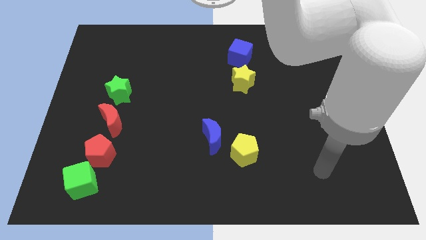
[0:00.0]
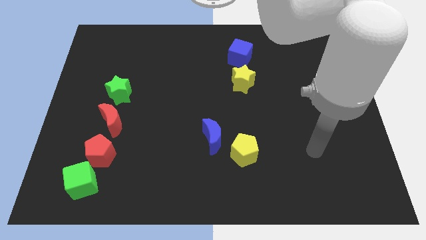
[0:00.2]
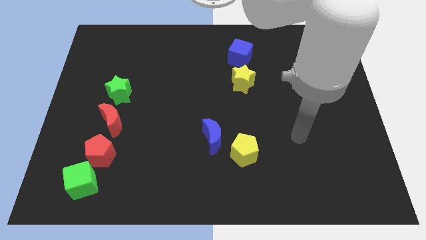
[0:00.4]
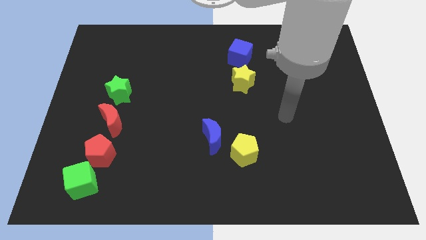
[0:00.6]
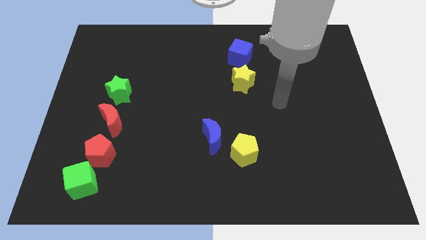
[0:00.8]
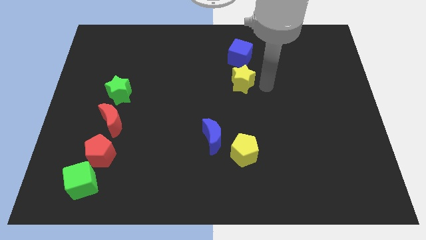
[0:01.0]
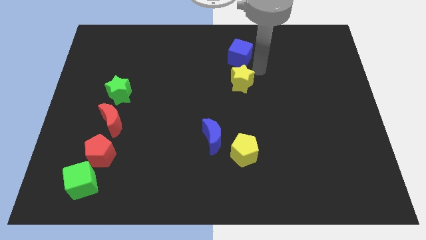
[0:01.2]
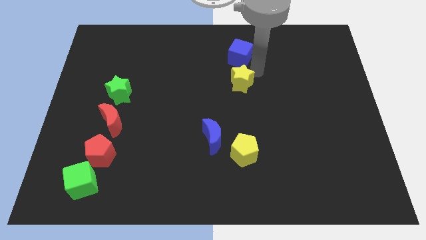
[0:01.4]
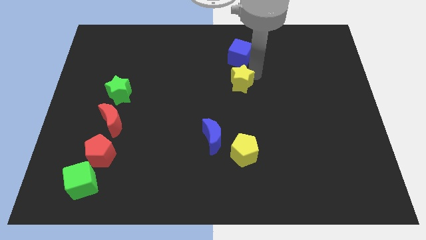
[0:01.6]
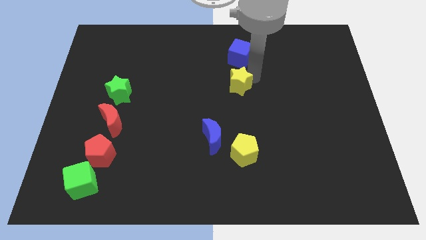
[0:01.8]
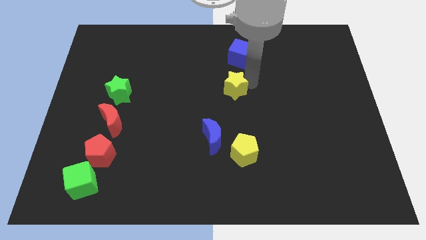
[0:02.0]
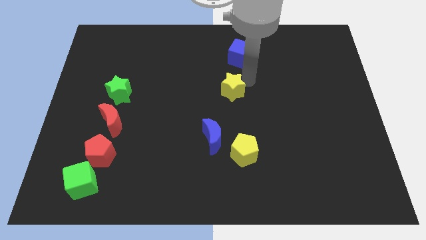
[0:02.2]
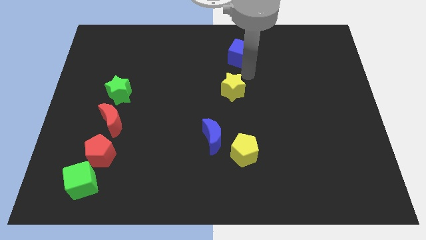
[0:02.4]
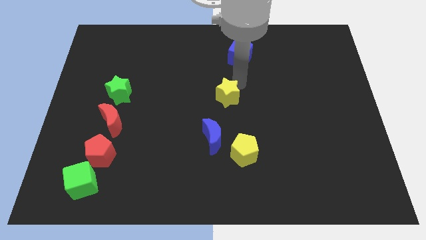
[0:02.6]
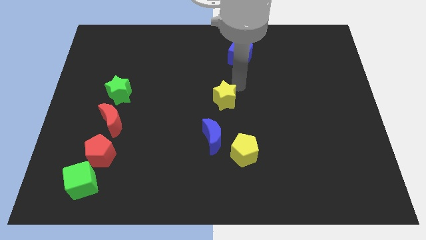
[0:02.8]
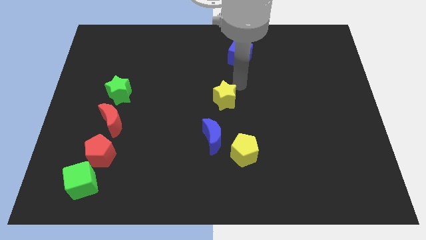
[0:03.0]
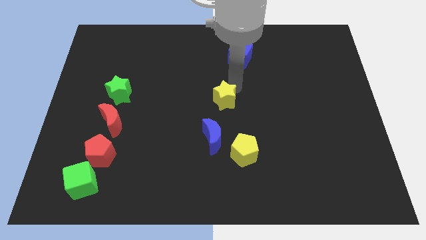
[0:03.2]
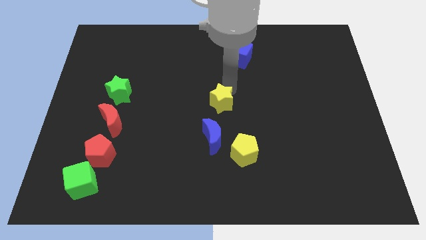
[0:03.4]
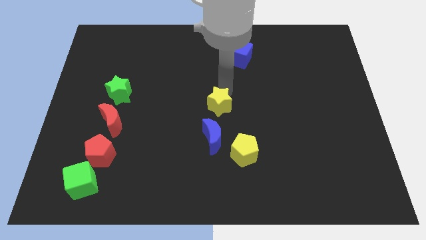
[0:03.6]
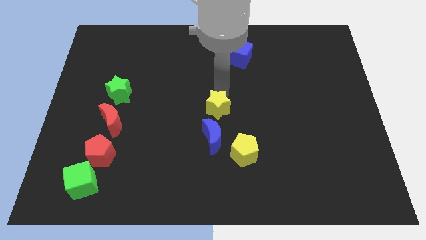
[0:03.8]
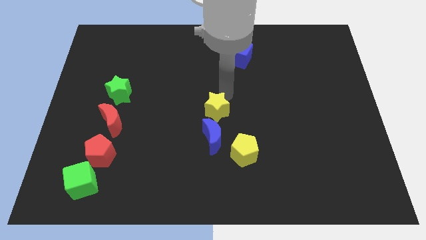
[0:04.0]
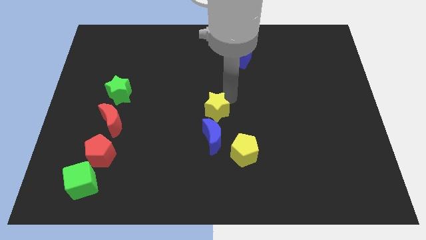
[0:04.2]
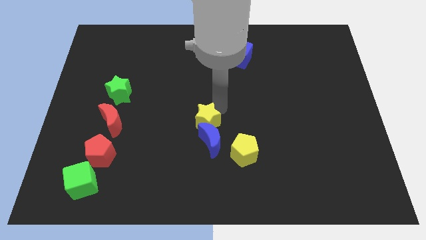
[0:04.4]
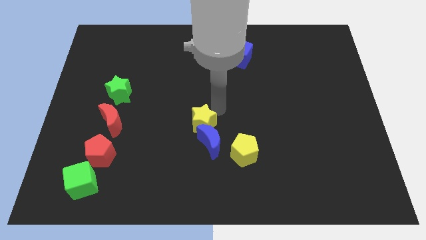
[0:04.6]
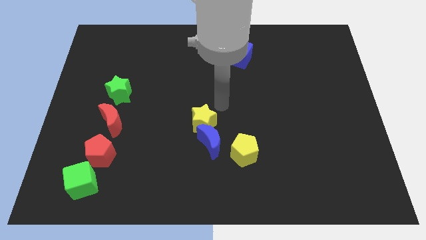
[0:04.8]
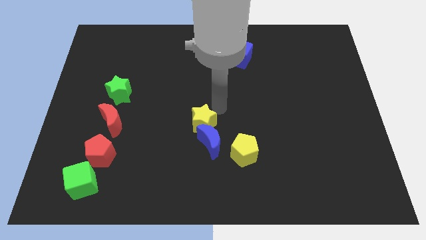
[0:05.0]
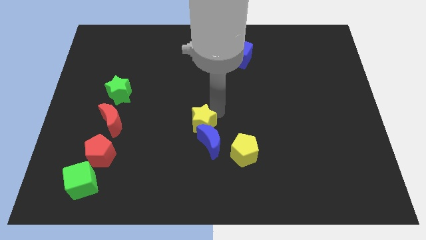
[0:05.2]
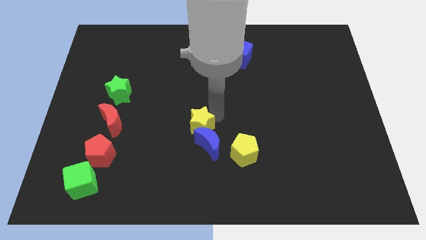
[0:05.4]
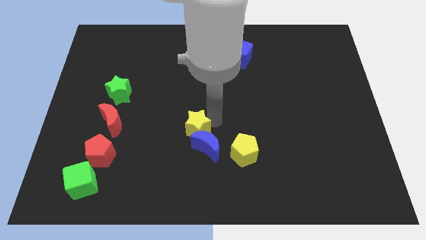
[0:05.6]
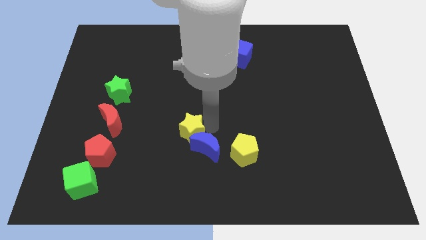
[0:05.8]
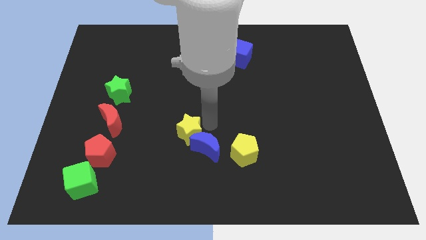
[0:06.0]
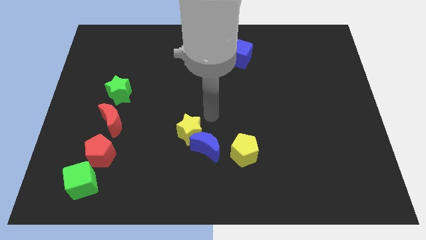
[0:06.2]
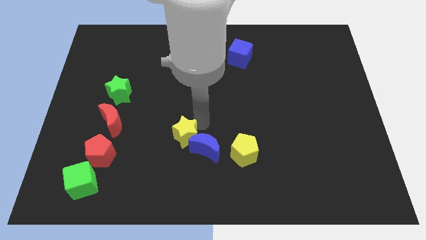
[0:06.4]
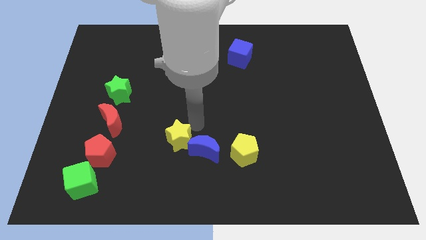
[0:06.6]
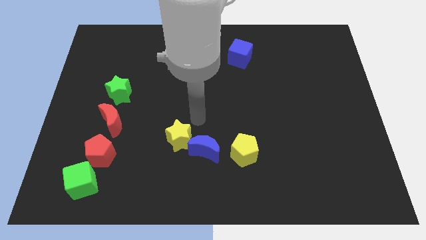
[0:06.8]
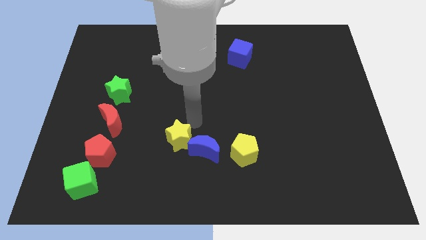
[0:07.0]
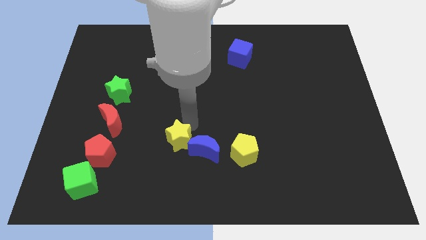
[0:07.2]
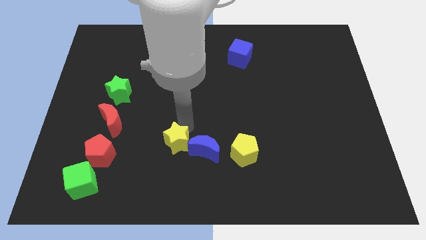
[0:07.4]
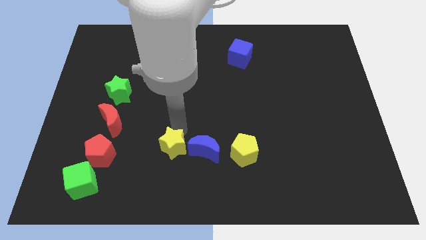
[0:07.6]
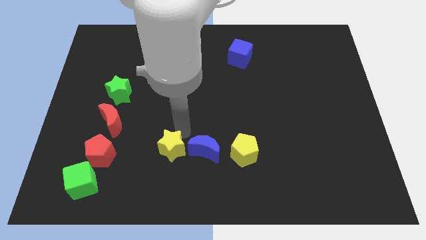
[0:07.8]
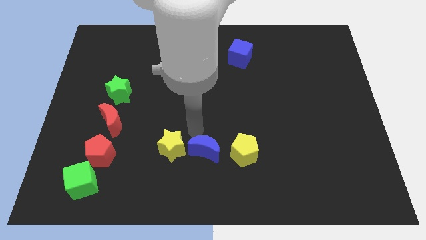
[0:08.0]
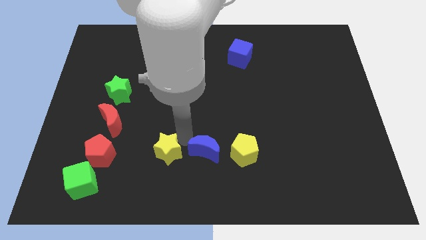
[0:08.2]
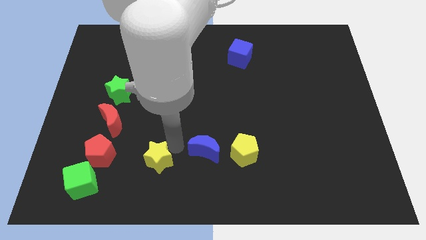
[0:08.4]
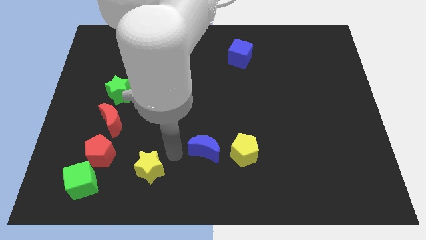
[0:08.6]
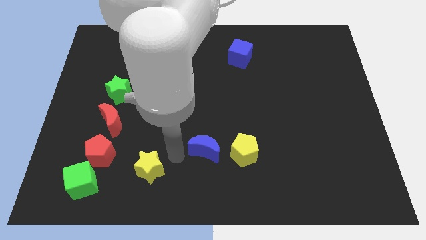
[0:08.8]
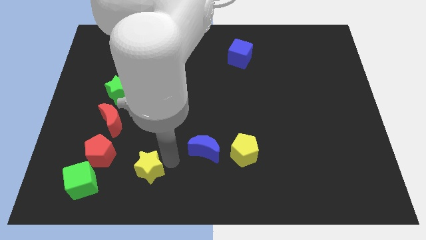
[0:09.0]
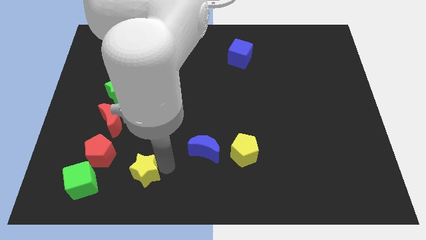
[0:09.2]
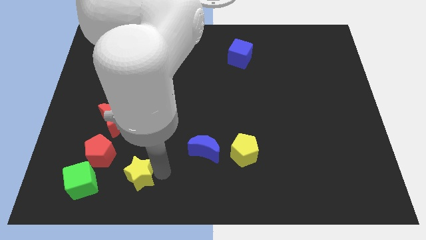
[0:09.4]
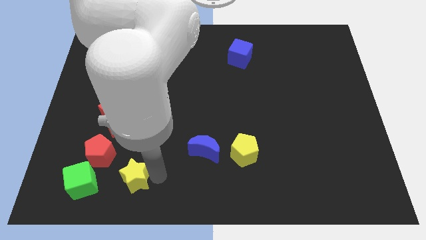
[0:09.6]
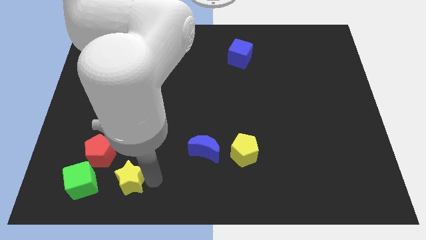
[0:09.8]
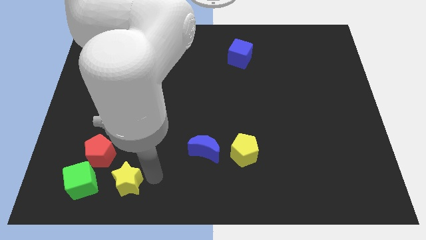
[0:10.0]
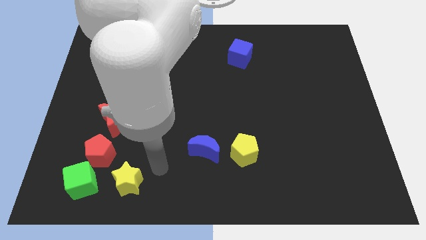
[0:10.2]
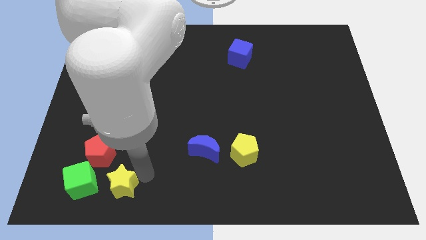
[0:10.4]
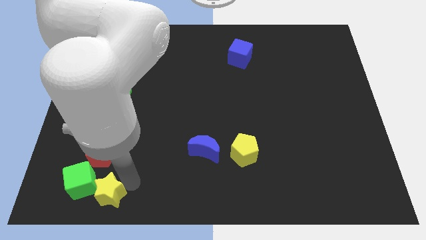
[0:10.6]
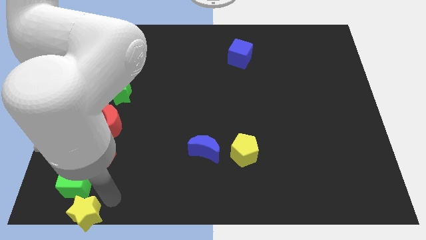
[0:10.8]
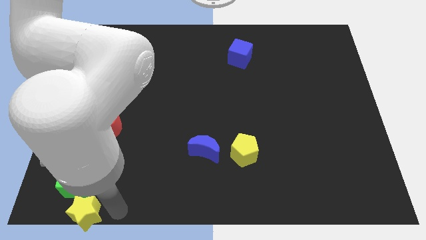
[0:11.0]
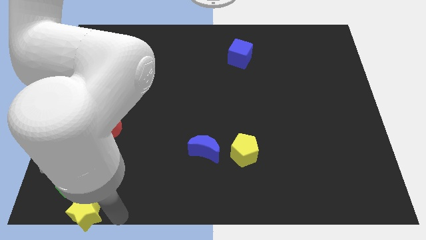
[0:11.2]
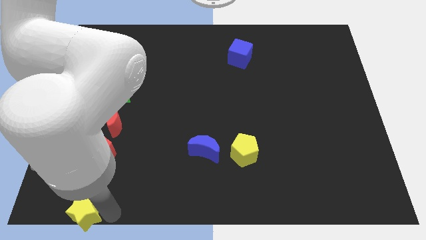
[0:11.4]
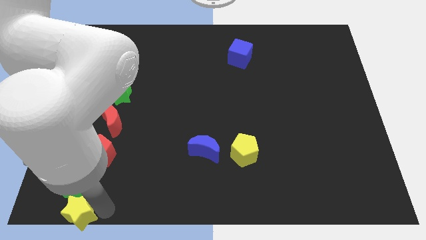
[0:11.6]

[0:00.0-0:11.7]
slide the yellow star to the bottom left corner
